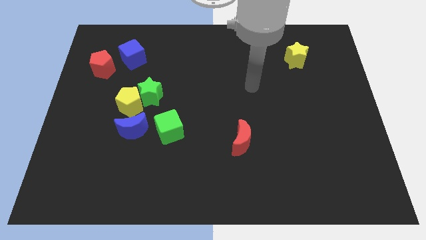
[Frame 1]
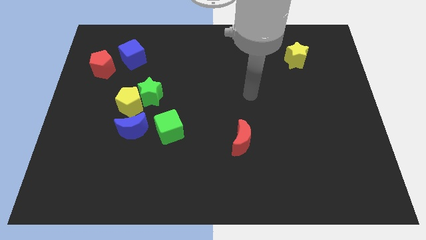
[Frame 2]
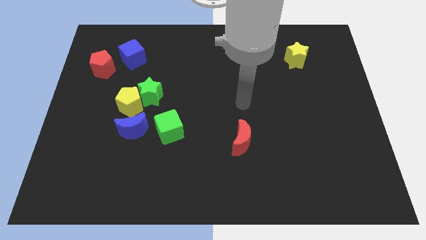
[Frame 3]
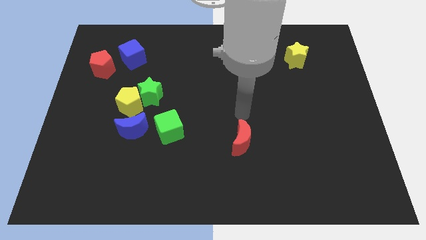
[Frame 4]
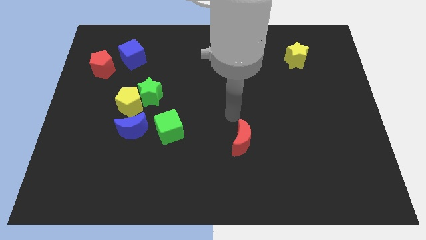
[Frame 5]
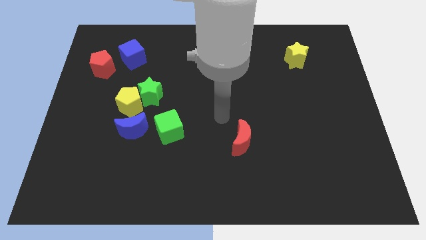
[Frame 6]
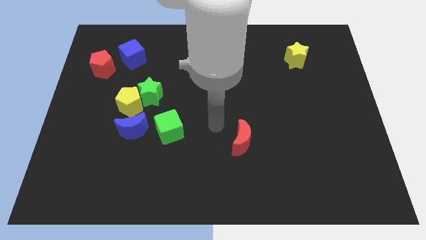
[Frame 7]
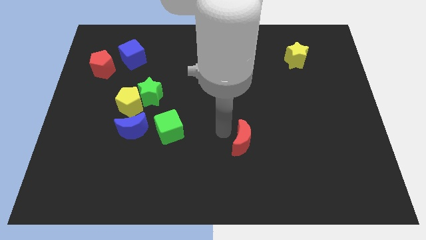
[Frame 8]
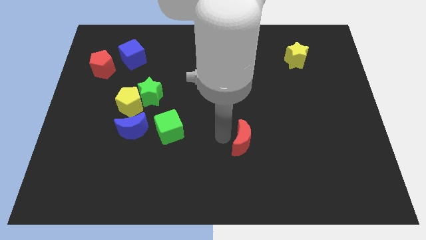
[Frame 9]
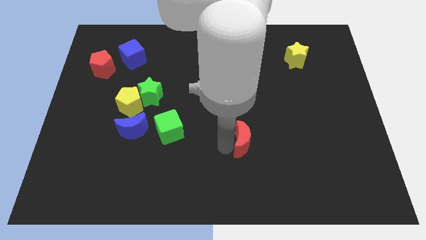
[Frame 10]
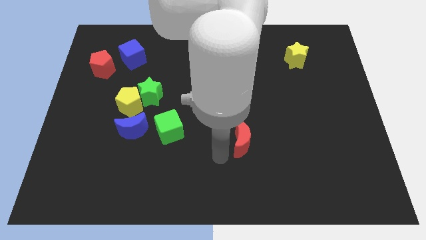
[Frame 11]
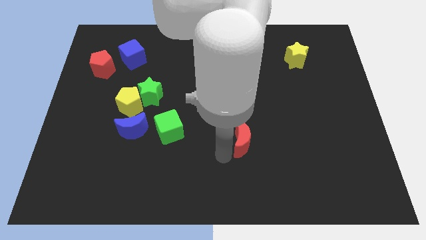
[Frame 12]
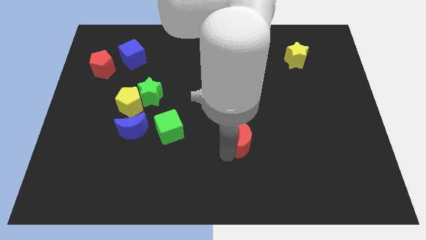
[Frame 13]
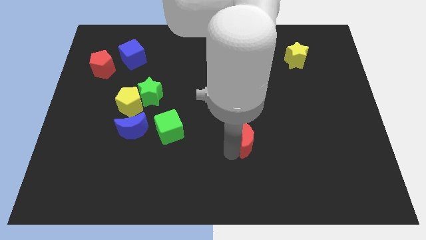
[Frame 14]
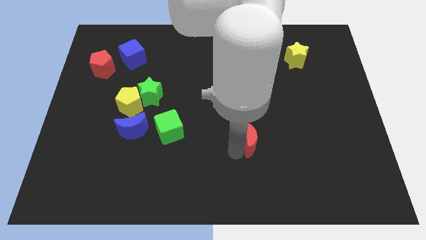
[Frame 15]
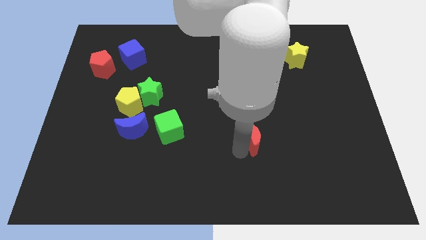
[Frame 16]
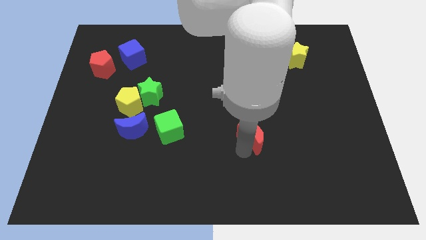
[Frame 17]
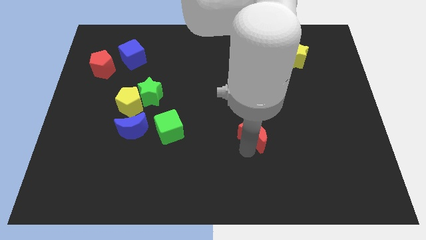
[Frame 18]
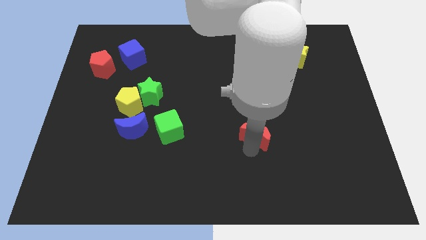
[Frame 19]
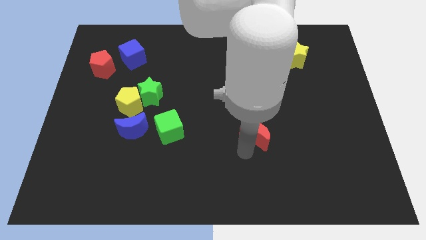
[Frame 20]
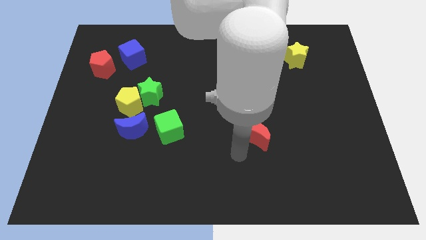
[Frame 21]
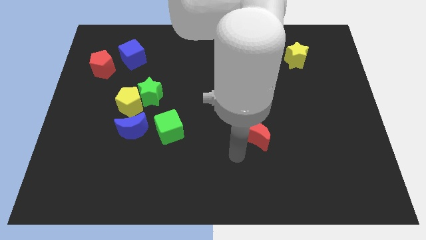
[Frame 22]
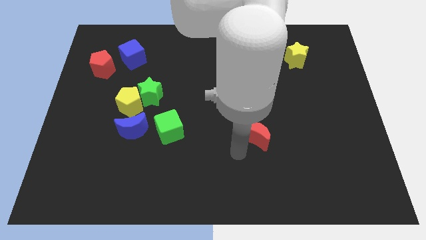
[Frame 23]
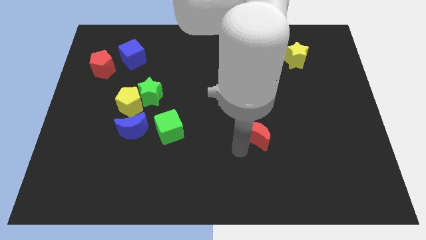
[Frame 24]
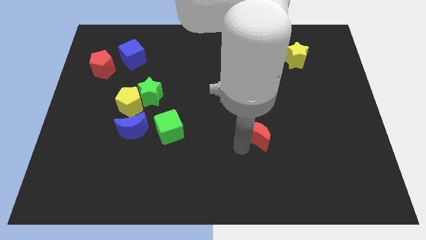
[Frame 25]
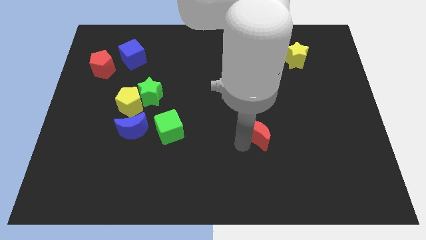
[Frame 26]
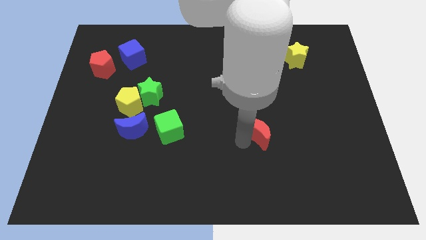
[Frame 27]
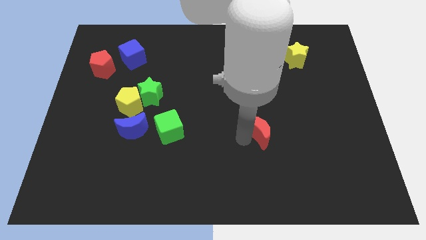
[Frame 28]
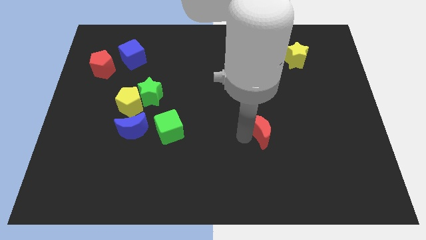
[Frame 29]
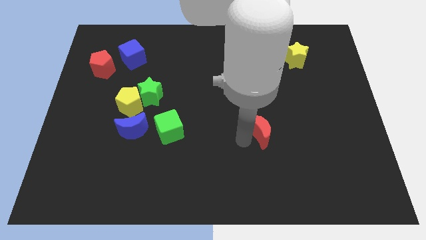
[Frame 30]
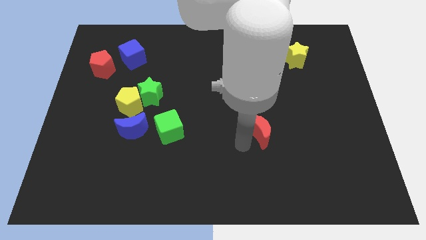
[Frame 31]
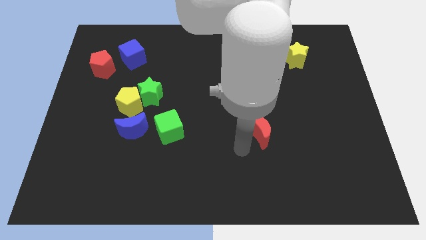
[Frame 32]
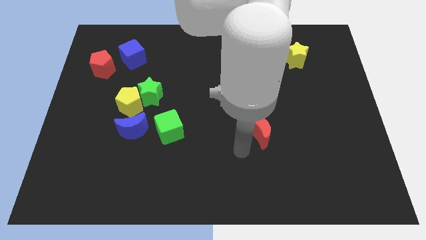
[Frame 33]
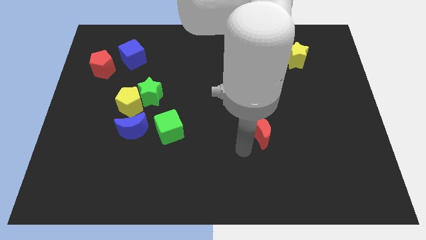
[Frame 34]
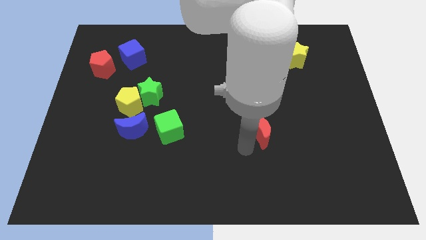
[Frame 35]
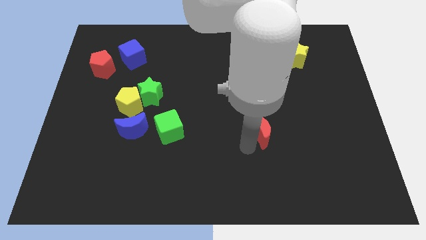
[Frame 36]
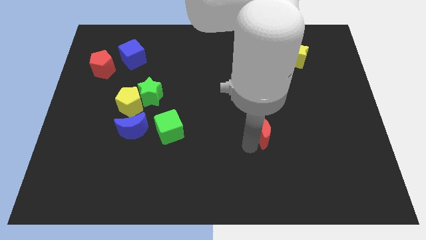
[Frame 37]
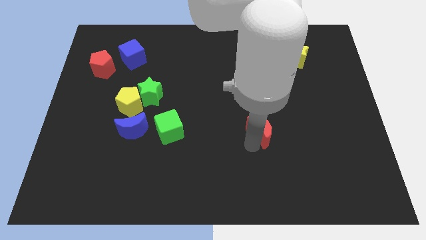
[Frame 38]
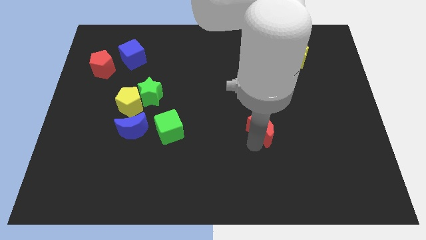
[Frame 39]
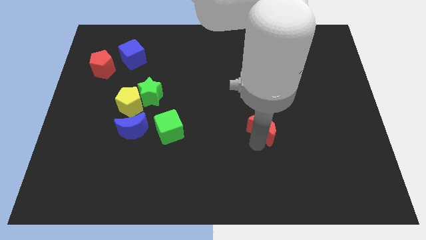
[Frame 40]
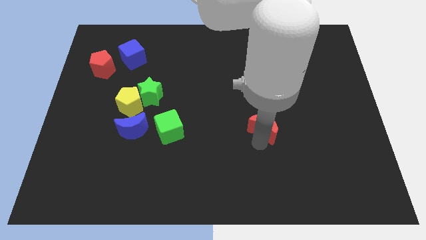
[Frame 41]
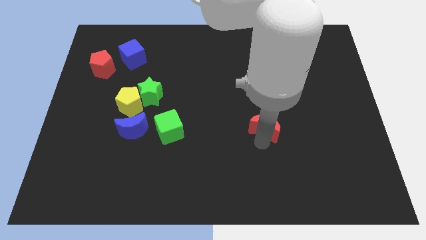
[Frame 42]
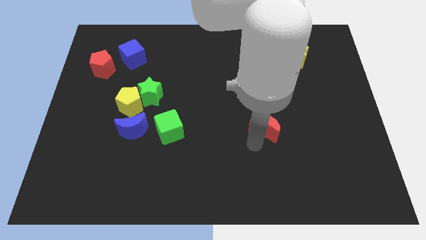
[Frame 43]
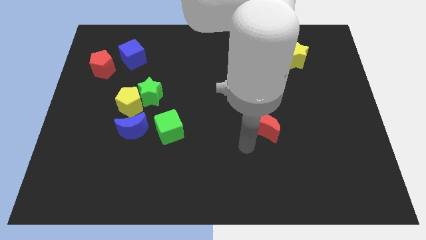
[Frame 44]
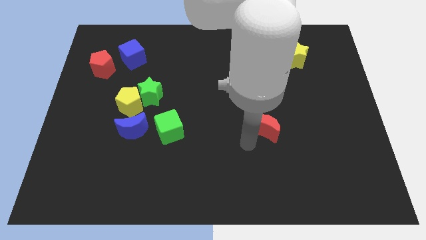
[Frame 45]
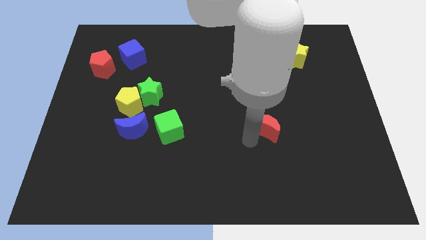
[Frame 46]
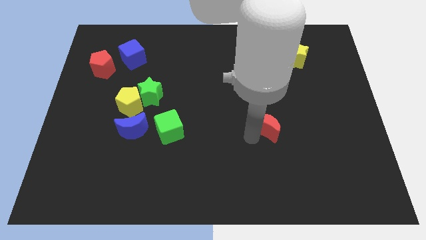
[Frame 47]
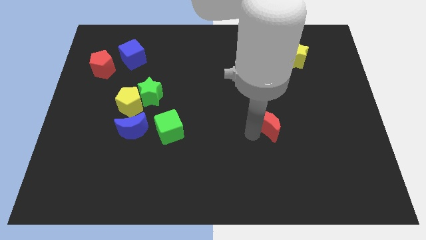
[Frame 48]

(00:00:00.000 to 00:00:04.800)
push the red moon diagonally up and to the right somewhat

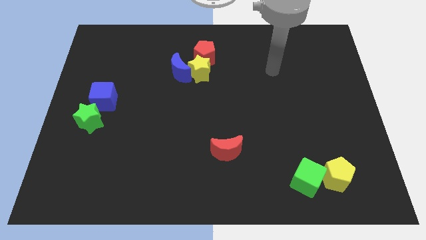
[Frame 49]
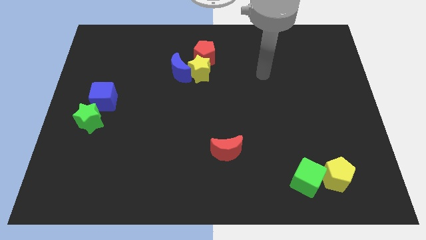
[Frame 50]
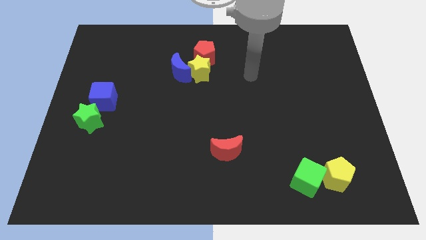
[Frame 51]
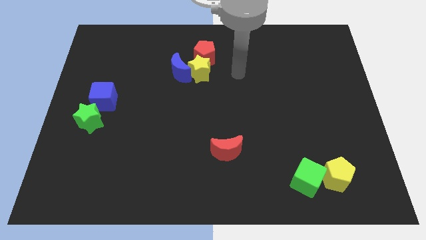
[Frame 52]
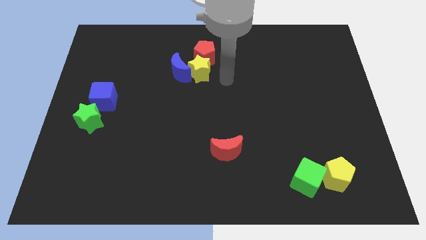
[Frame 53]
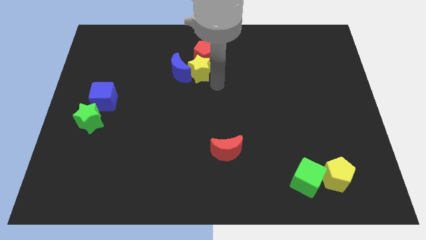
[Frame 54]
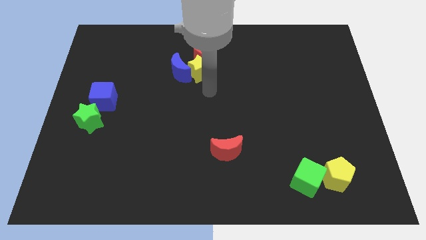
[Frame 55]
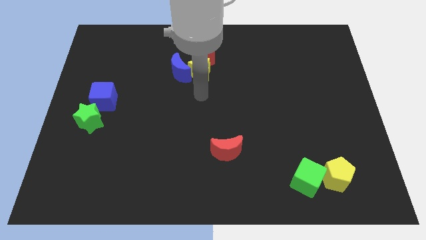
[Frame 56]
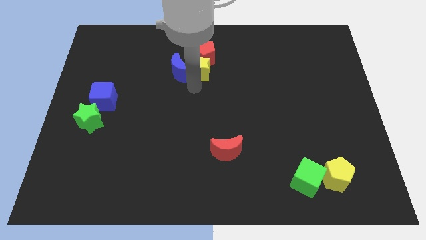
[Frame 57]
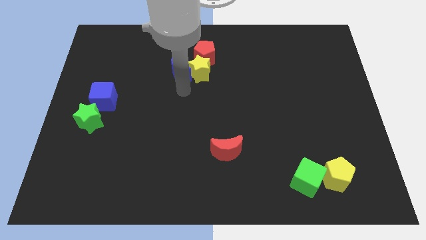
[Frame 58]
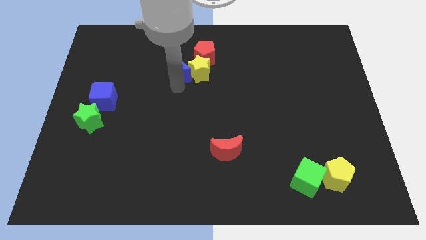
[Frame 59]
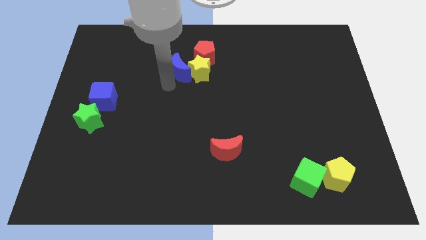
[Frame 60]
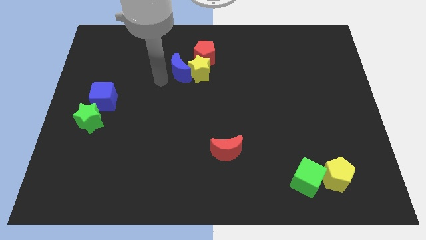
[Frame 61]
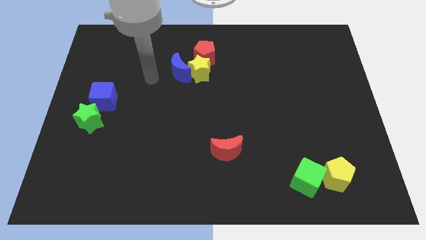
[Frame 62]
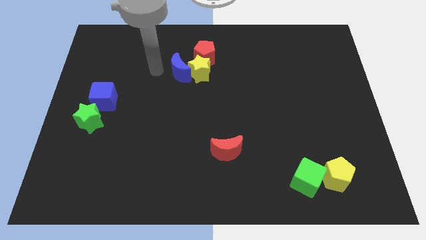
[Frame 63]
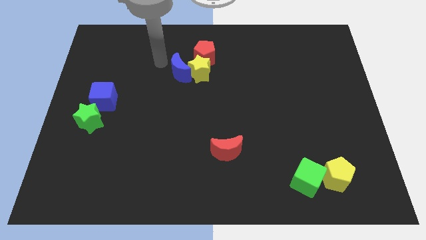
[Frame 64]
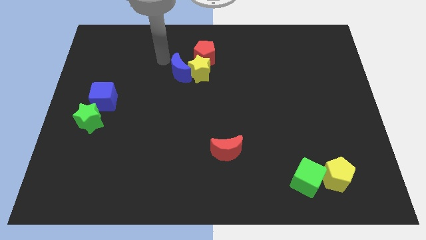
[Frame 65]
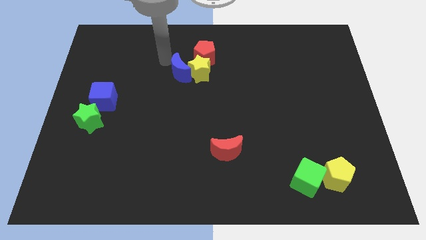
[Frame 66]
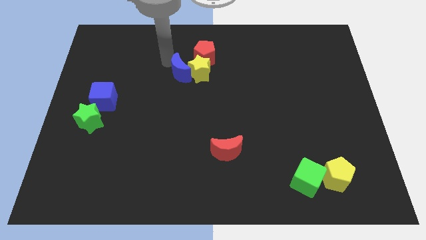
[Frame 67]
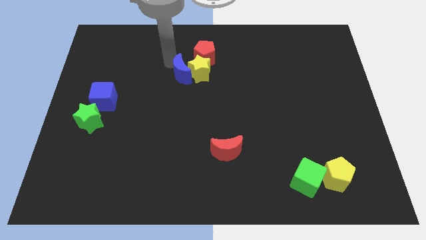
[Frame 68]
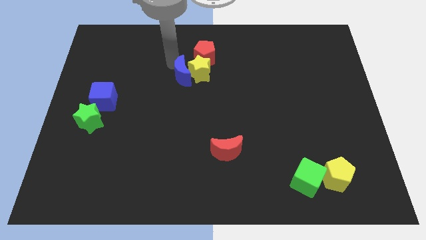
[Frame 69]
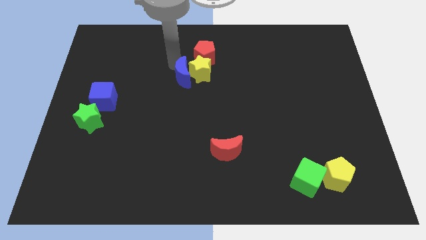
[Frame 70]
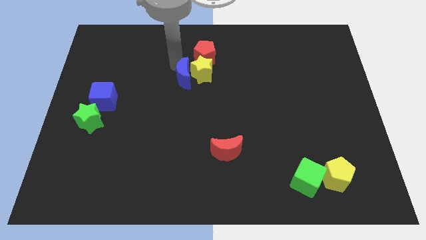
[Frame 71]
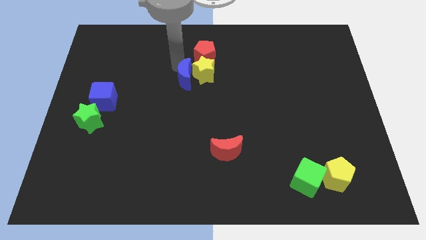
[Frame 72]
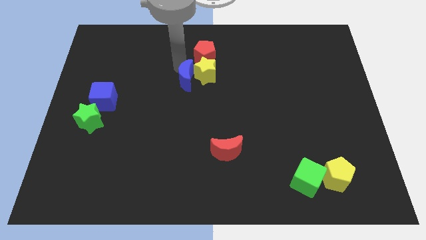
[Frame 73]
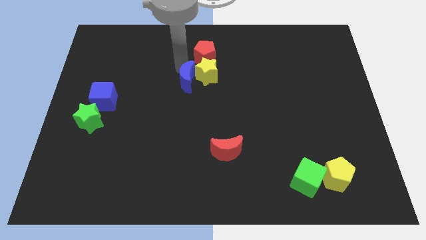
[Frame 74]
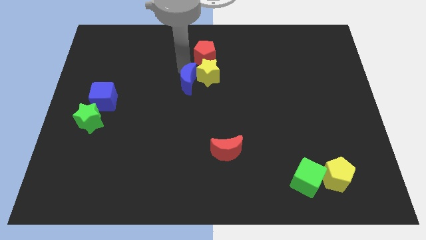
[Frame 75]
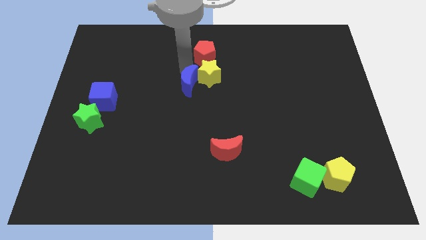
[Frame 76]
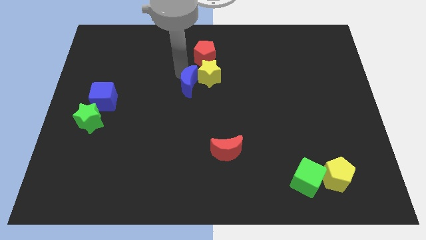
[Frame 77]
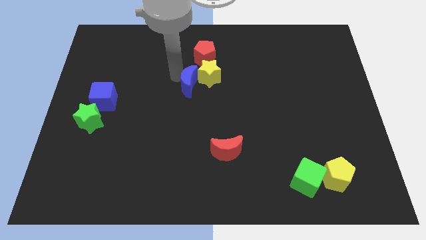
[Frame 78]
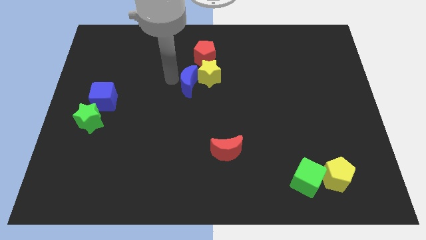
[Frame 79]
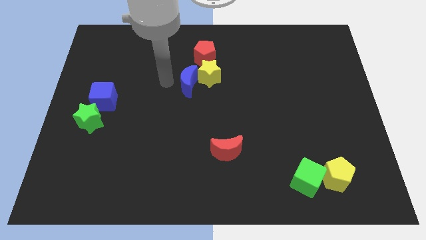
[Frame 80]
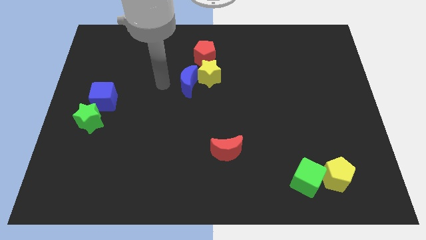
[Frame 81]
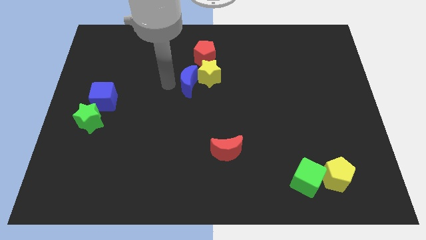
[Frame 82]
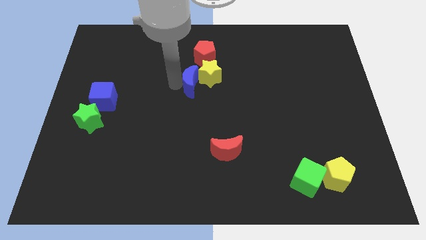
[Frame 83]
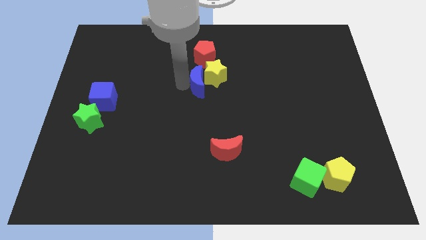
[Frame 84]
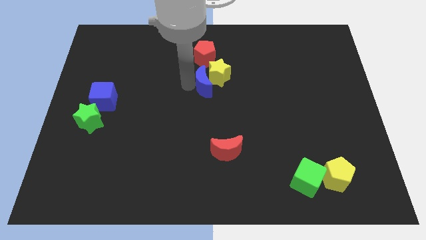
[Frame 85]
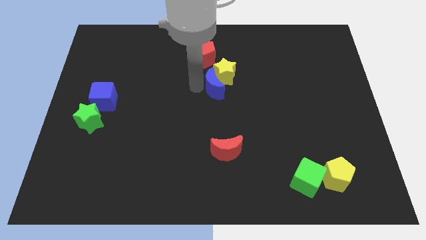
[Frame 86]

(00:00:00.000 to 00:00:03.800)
move the blue moon right a little
